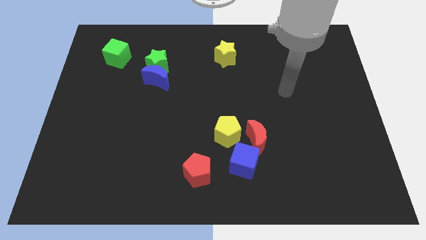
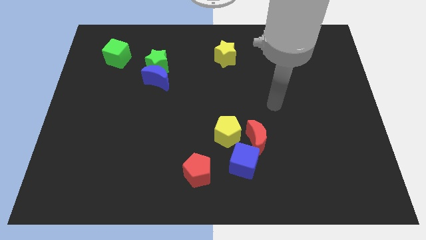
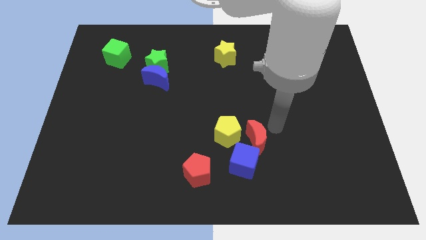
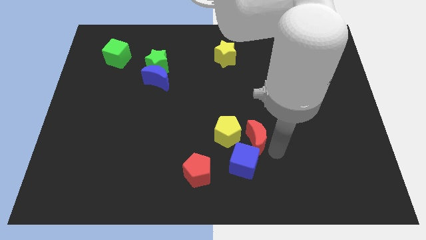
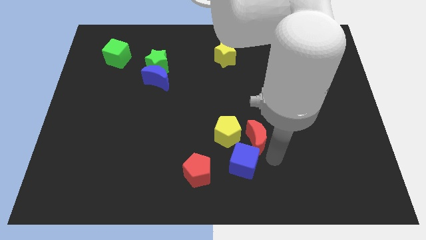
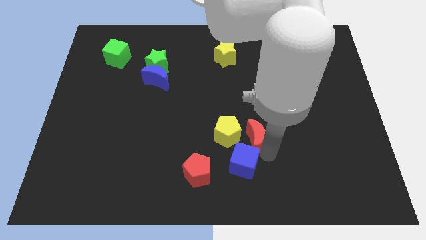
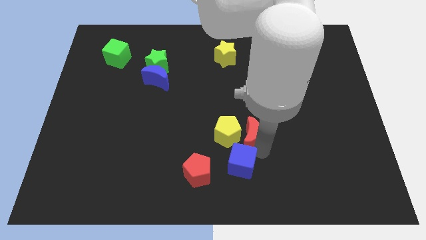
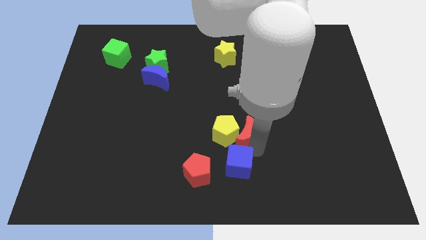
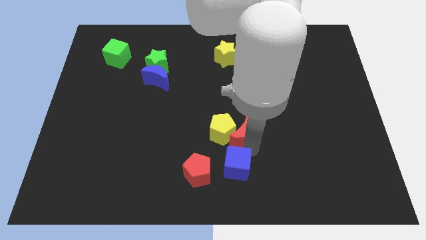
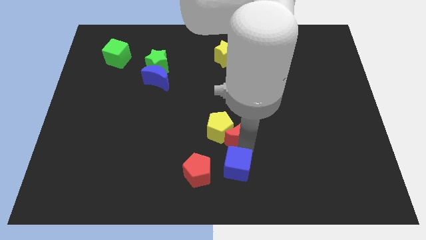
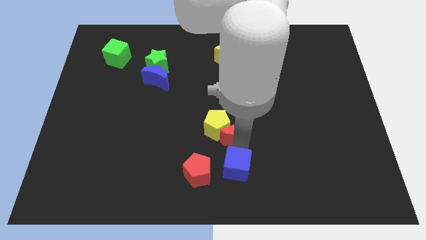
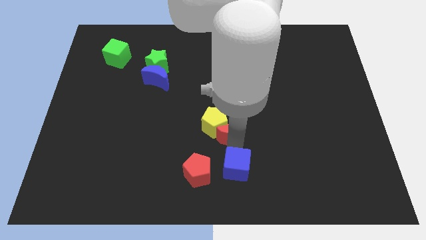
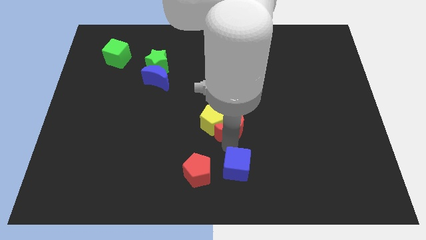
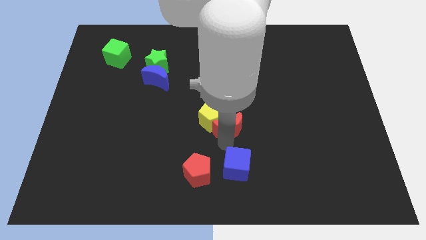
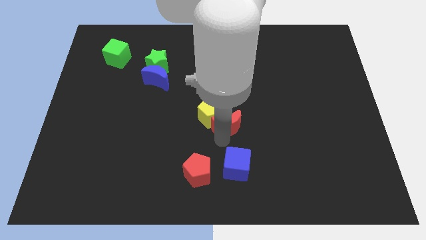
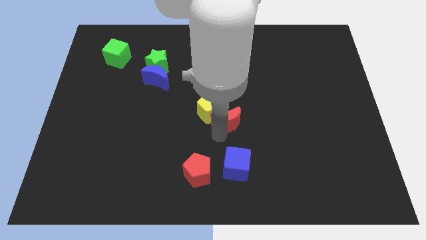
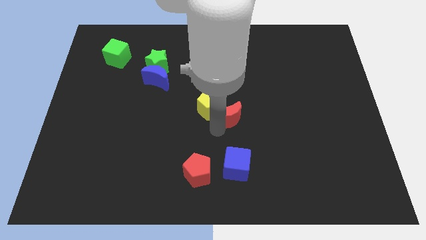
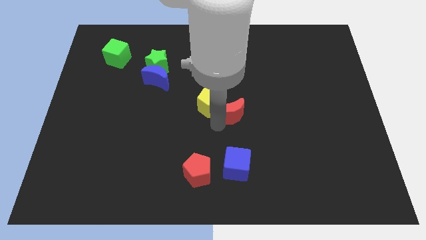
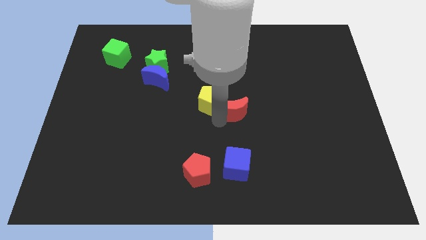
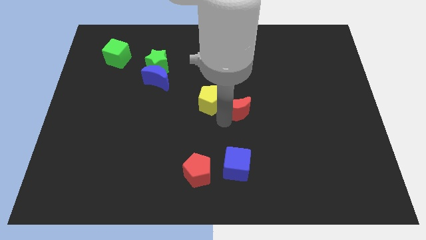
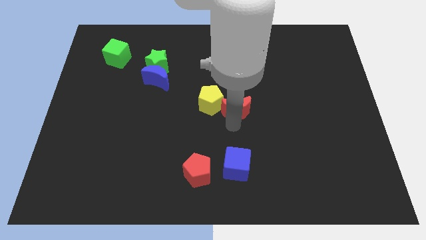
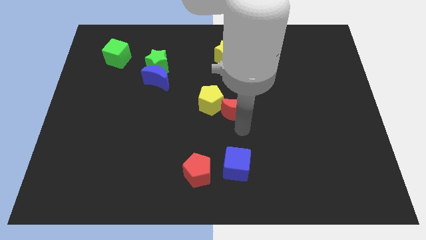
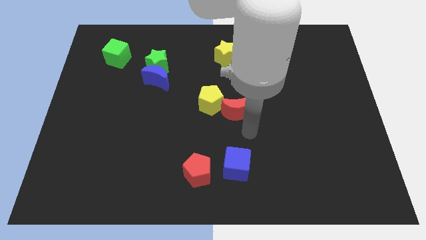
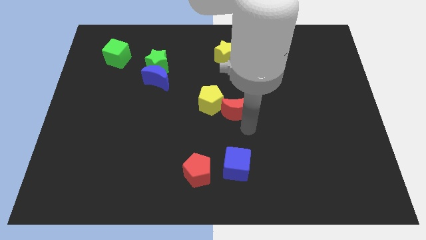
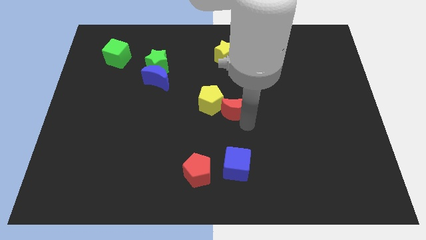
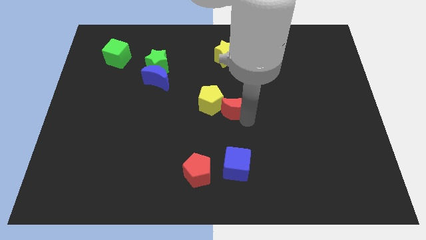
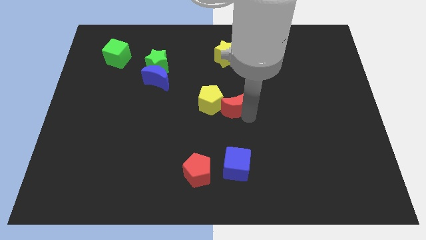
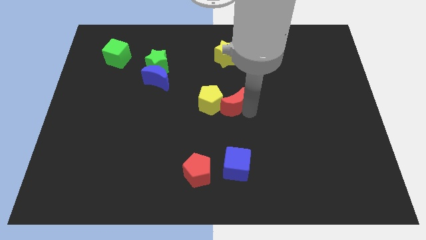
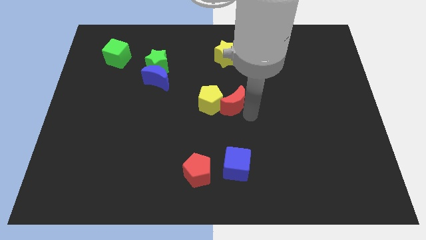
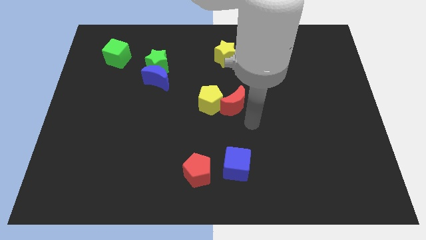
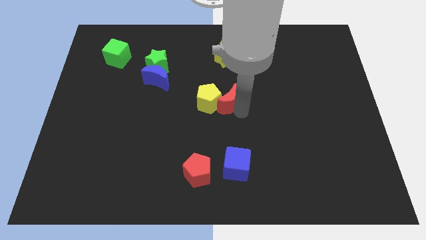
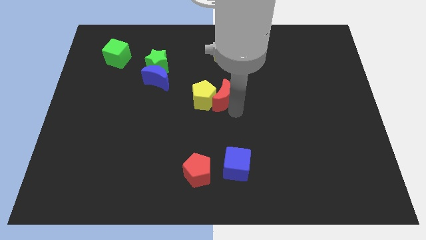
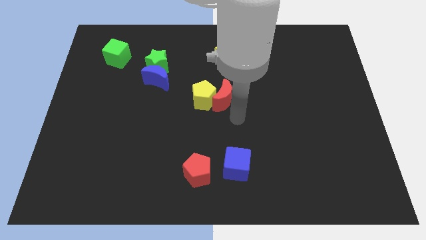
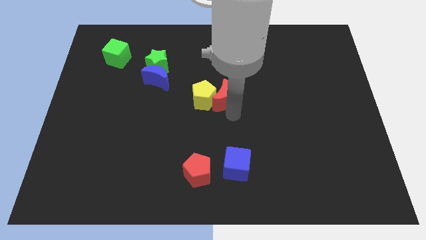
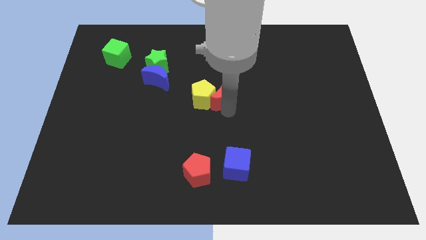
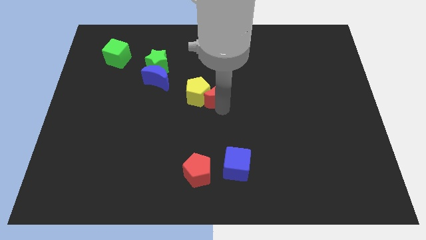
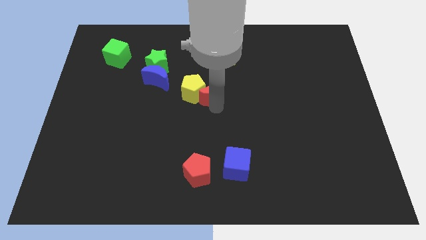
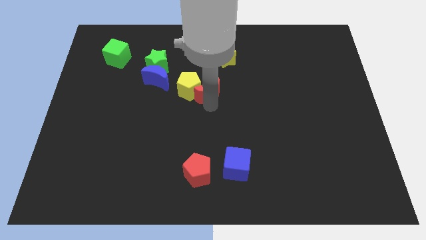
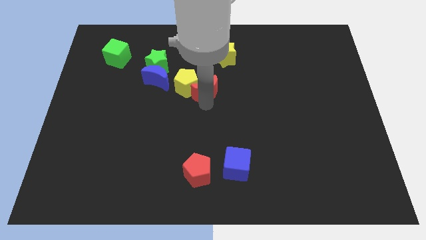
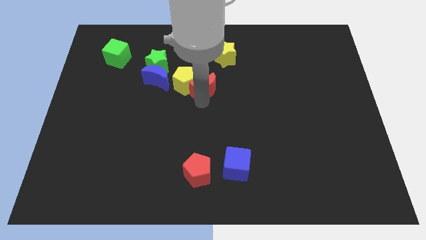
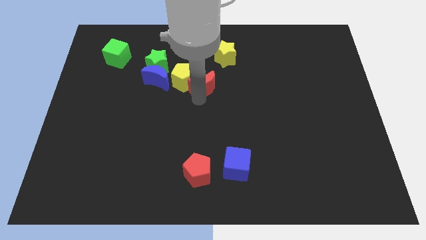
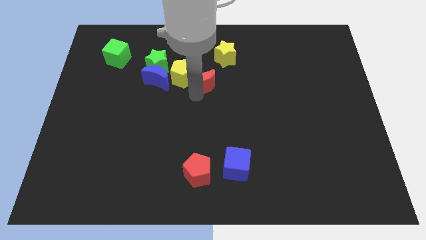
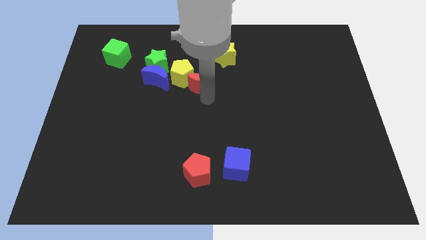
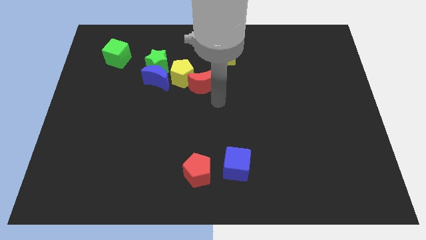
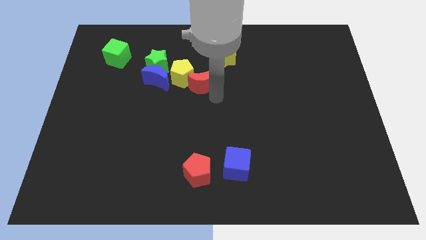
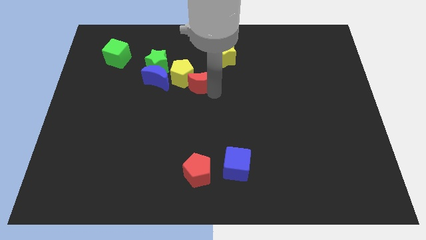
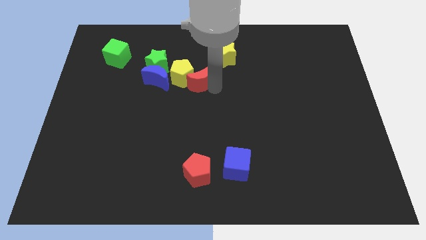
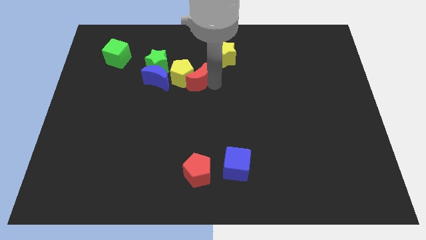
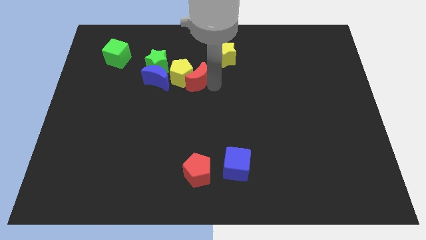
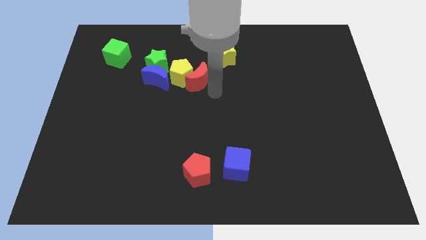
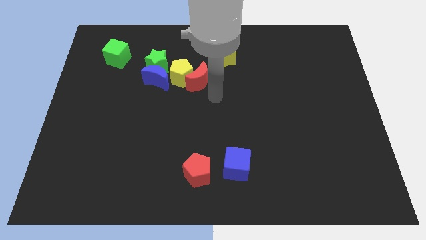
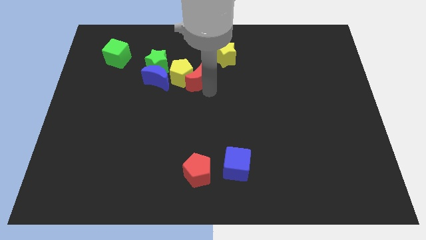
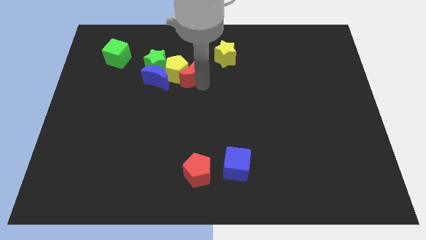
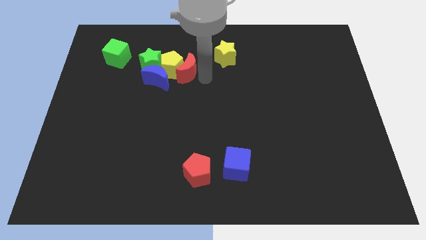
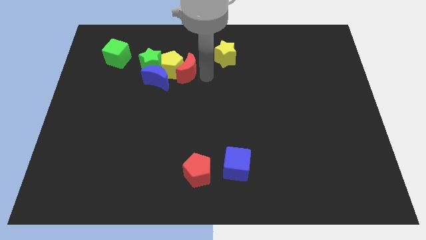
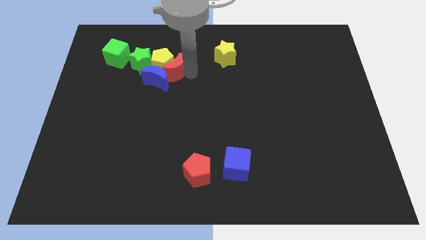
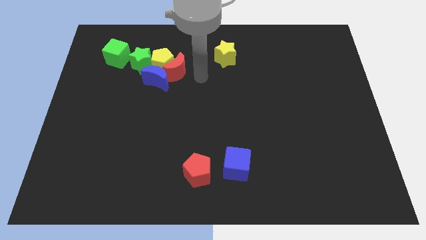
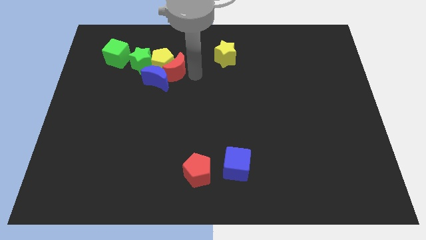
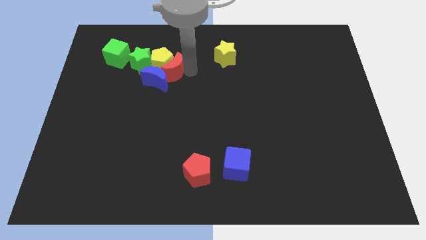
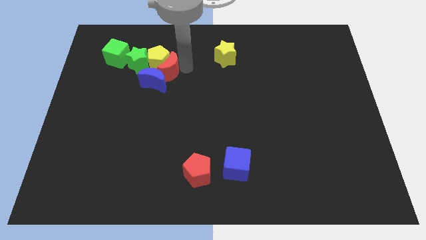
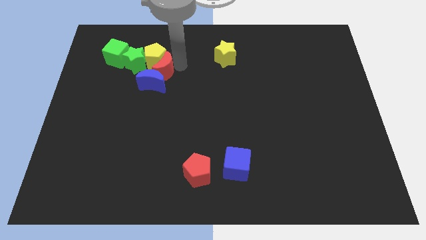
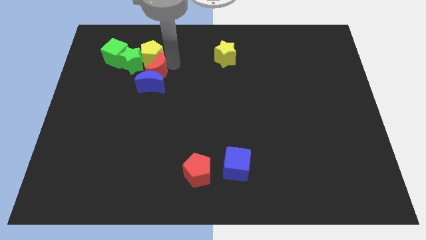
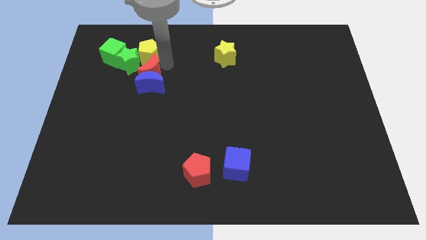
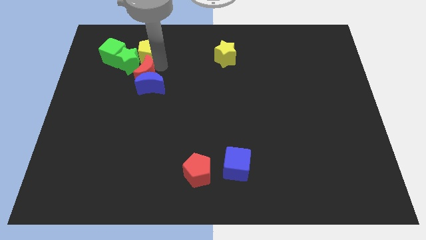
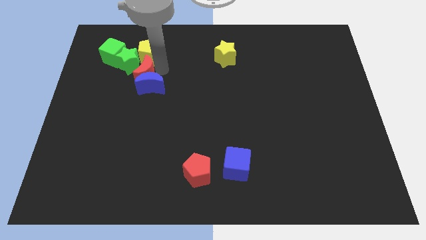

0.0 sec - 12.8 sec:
slide the red moon towards the green star

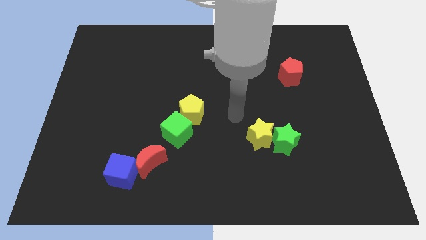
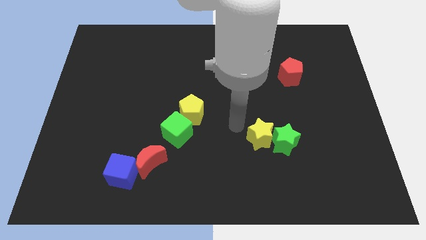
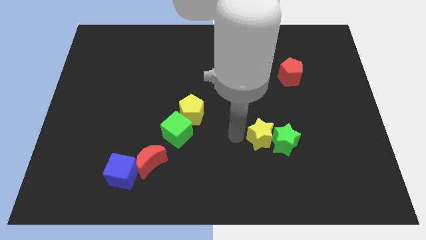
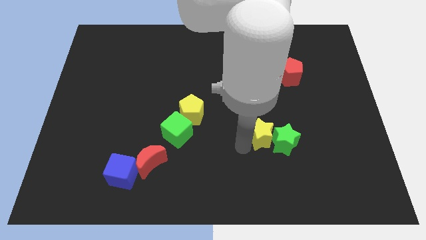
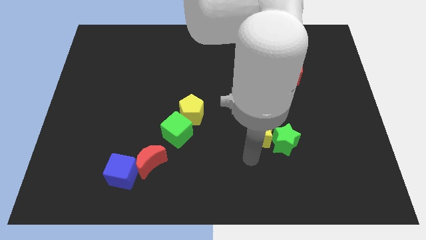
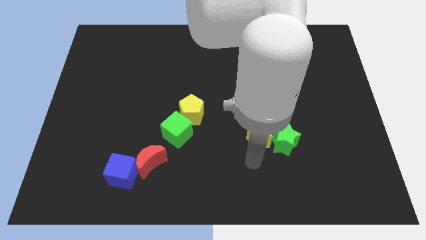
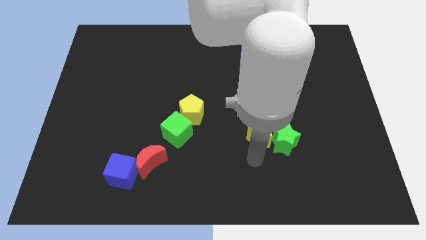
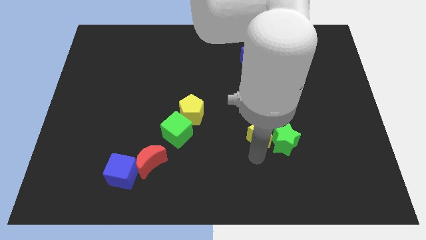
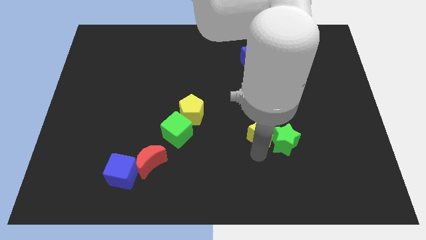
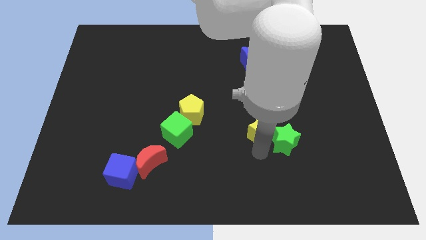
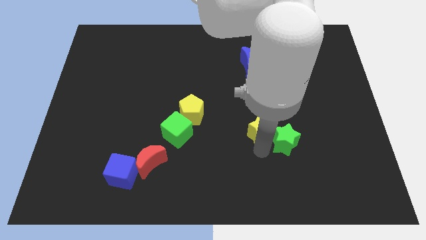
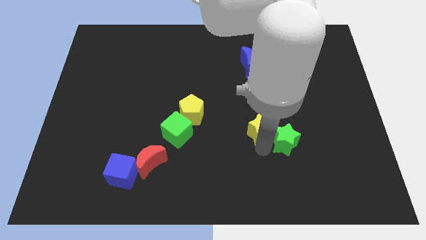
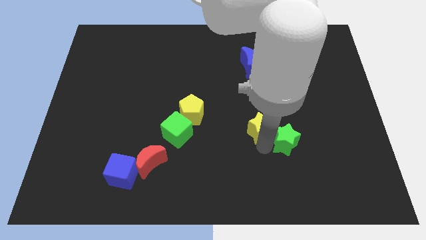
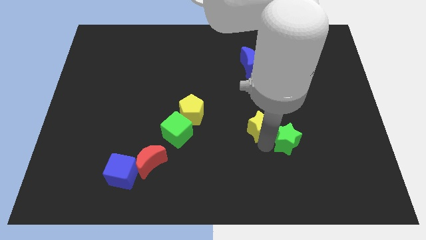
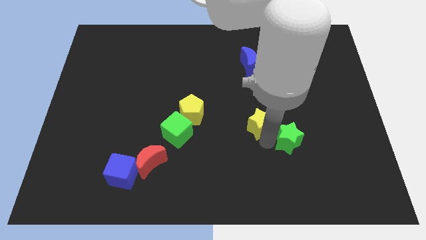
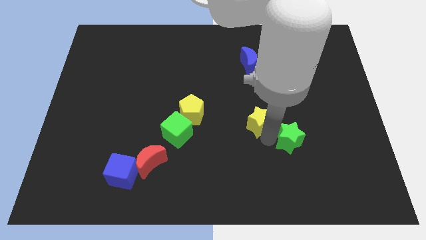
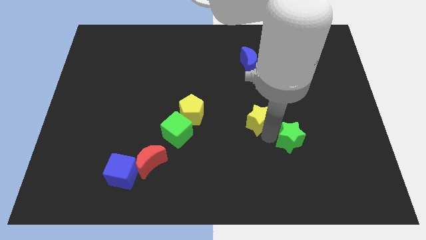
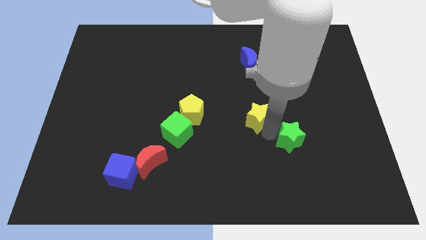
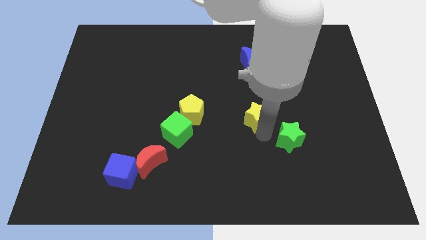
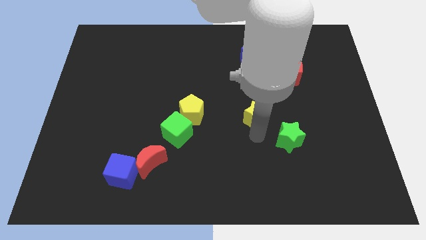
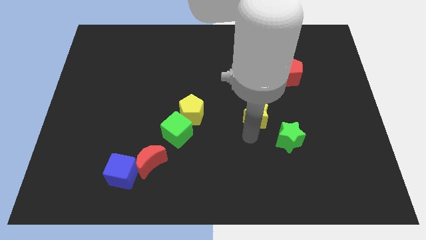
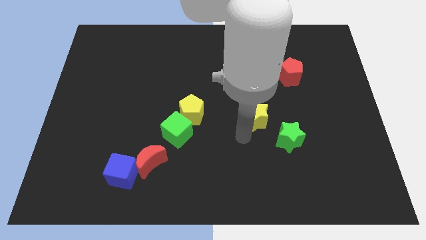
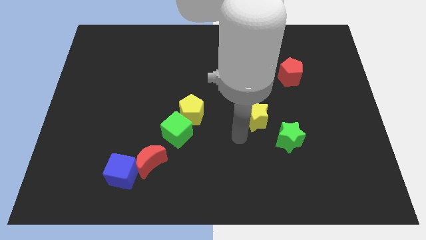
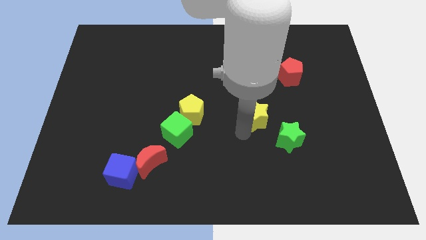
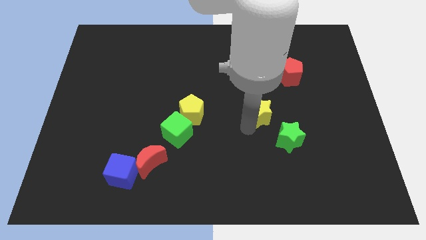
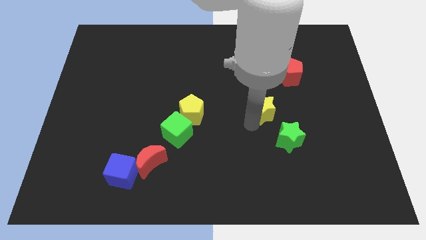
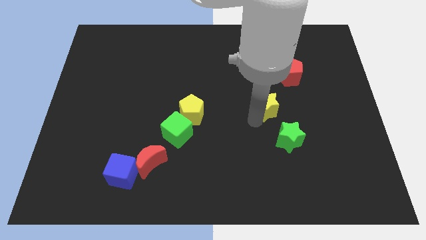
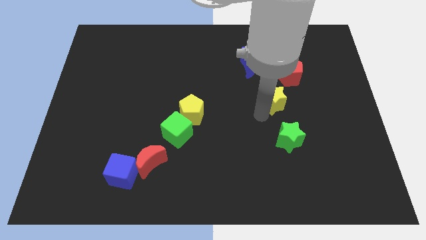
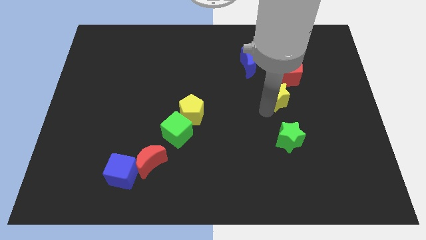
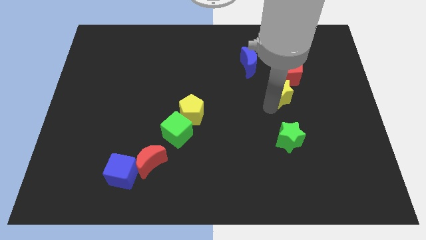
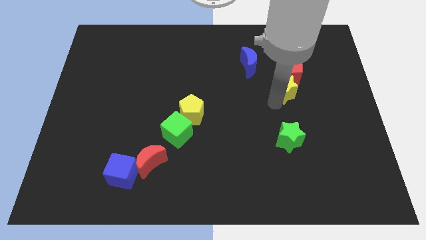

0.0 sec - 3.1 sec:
push the yellow star next to the red pentagon
